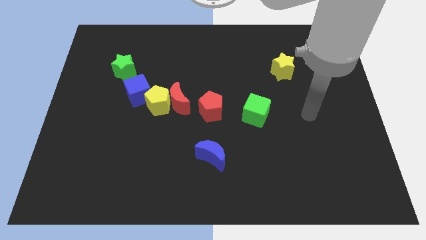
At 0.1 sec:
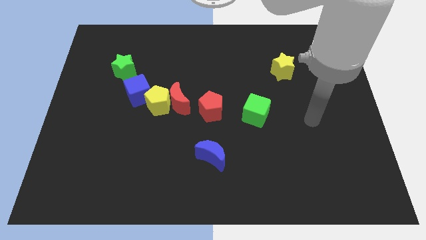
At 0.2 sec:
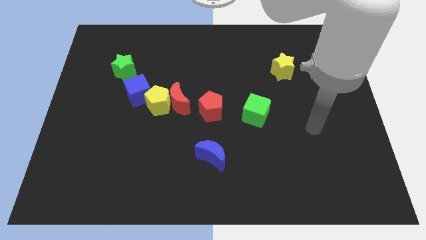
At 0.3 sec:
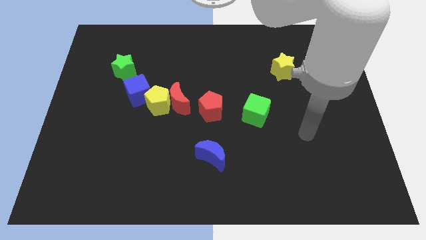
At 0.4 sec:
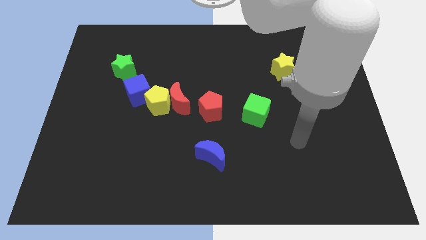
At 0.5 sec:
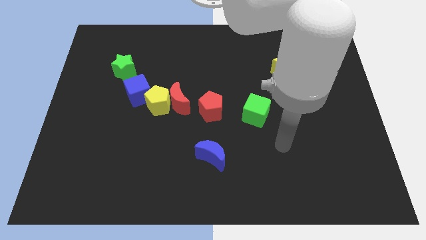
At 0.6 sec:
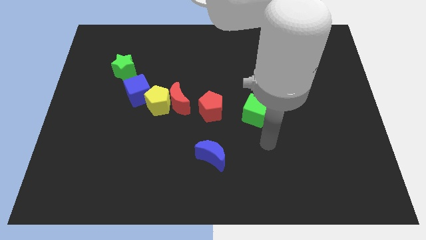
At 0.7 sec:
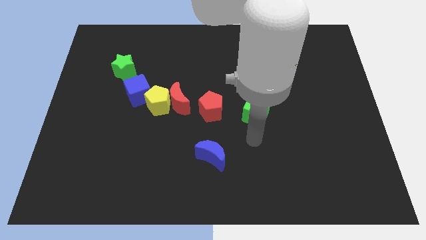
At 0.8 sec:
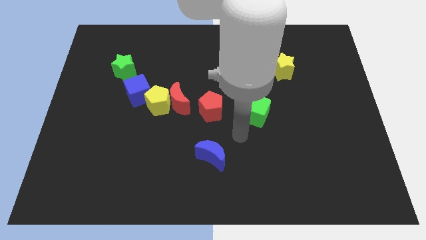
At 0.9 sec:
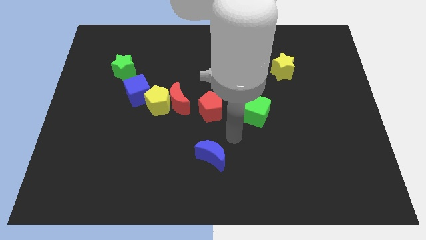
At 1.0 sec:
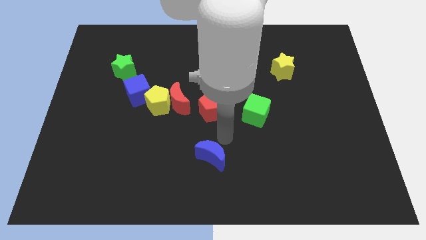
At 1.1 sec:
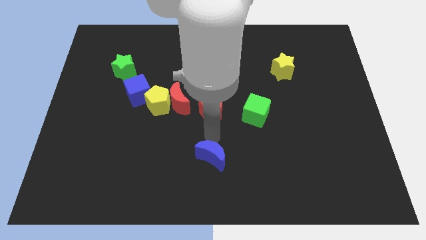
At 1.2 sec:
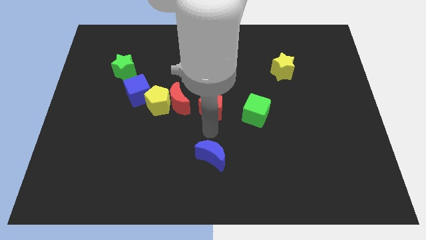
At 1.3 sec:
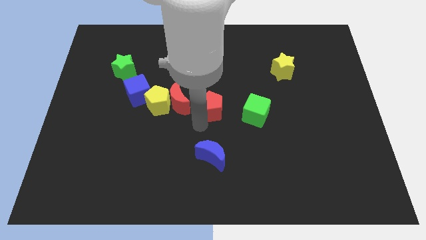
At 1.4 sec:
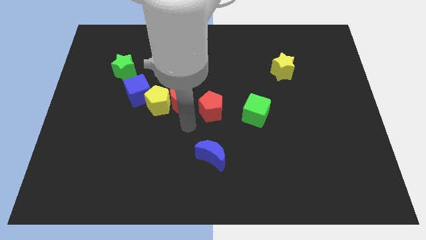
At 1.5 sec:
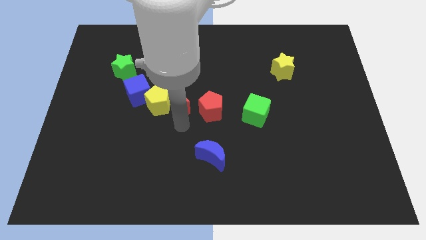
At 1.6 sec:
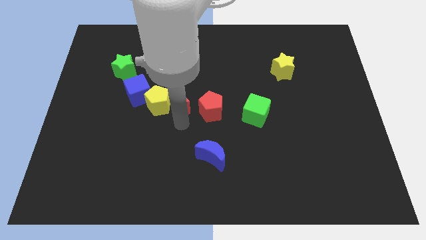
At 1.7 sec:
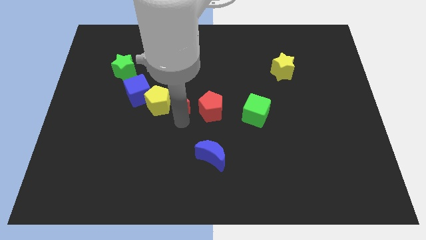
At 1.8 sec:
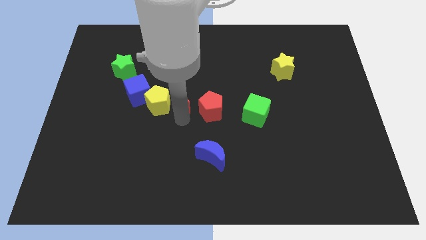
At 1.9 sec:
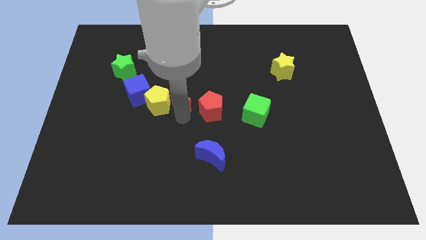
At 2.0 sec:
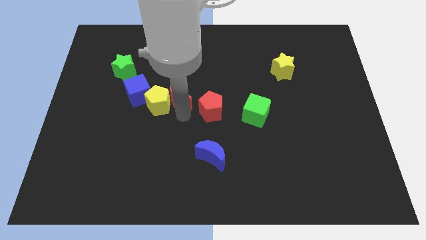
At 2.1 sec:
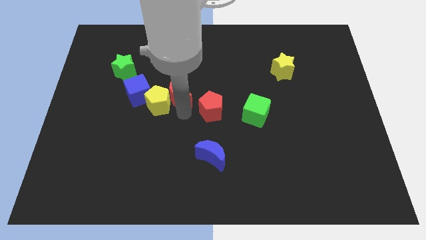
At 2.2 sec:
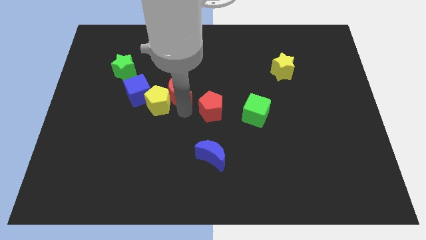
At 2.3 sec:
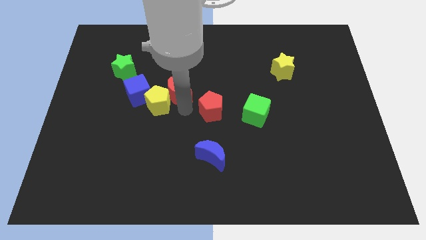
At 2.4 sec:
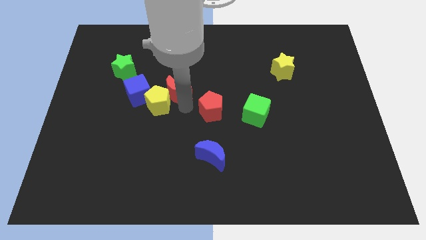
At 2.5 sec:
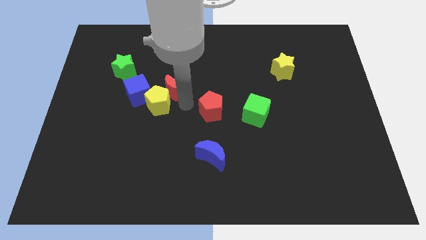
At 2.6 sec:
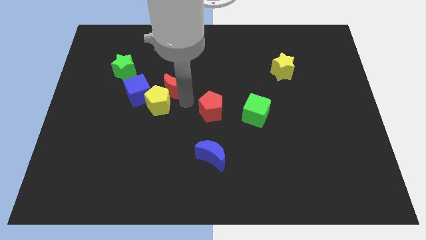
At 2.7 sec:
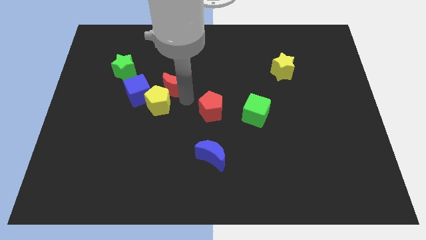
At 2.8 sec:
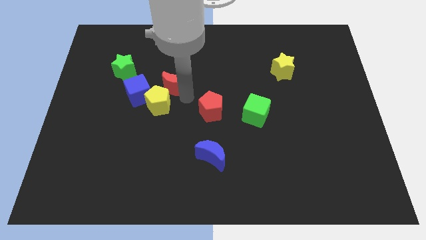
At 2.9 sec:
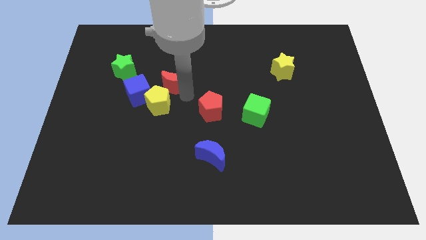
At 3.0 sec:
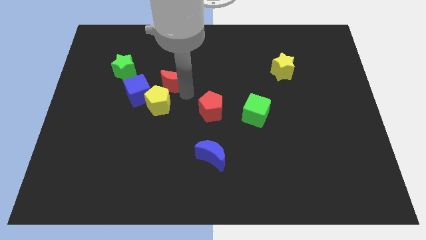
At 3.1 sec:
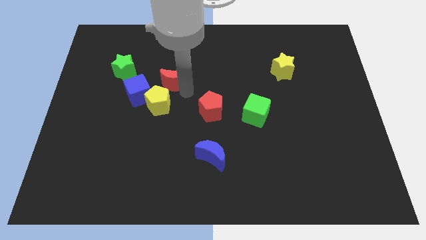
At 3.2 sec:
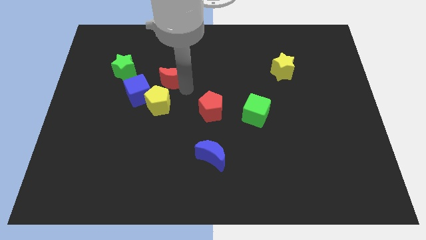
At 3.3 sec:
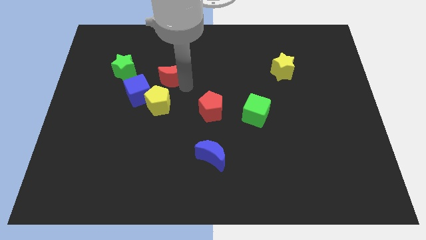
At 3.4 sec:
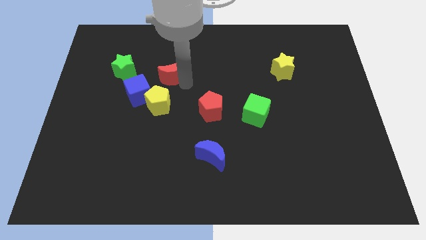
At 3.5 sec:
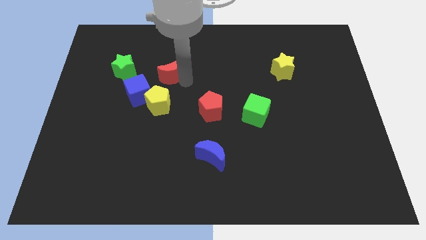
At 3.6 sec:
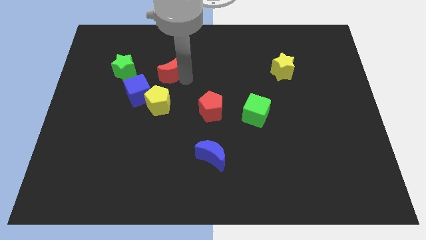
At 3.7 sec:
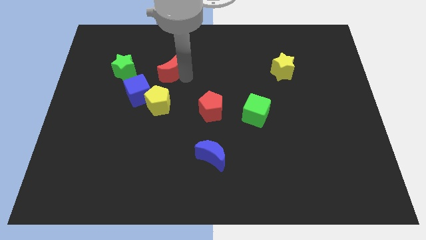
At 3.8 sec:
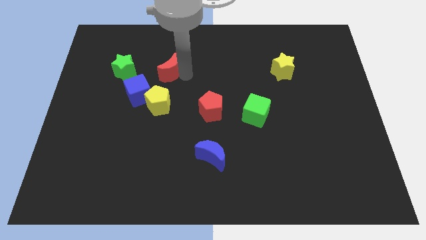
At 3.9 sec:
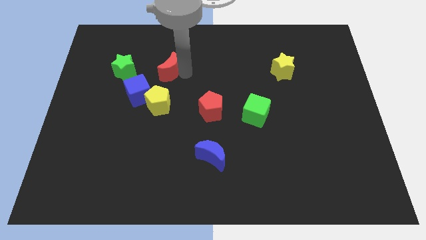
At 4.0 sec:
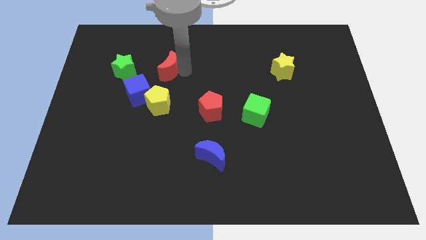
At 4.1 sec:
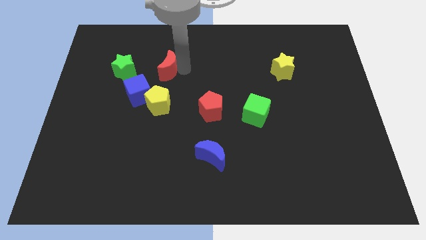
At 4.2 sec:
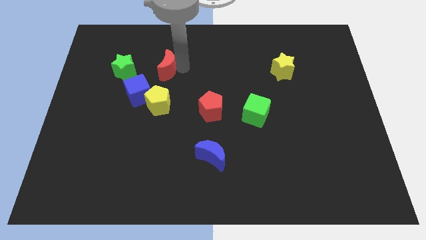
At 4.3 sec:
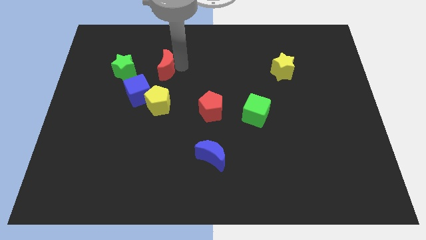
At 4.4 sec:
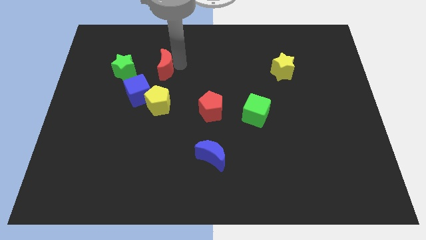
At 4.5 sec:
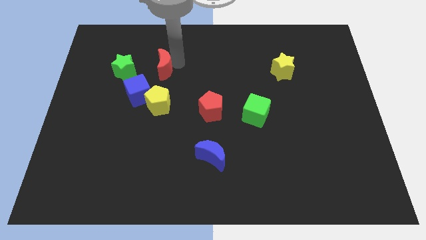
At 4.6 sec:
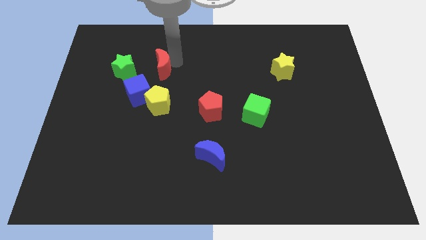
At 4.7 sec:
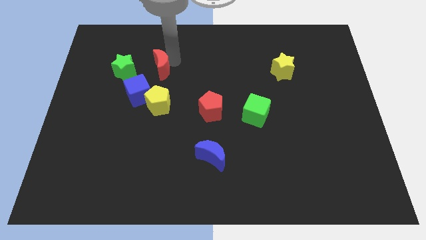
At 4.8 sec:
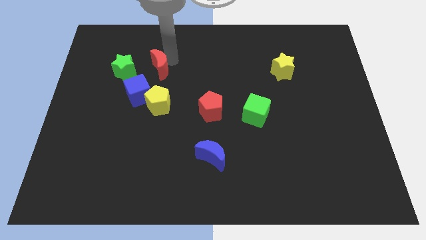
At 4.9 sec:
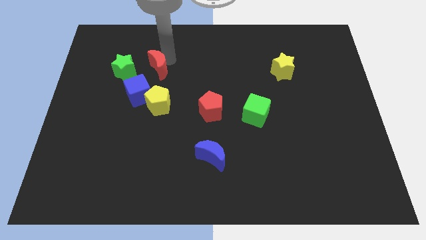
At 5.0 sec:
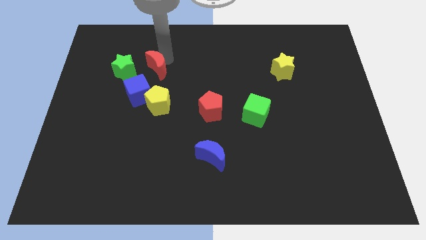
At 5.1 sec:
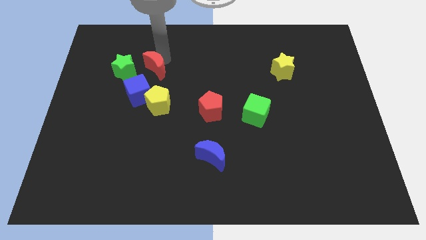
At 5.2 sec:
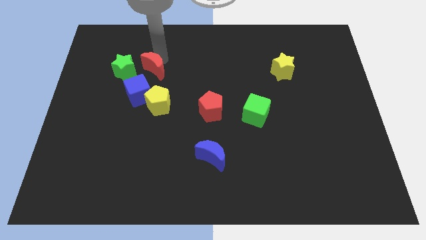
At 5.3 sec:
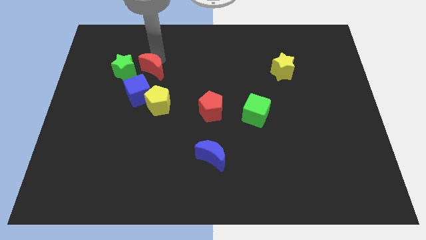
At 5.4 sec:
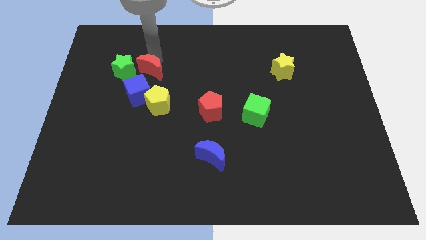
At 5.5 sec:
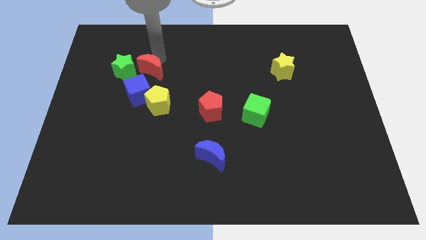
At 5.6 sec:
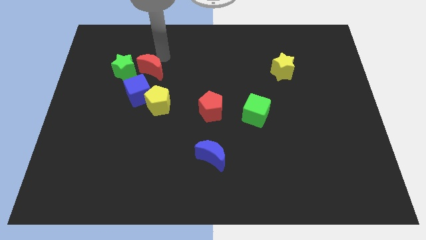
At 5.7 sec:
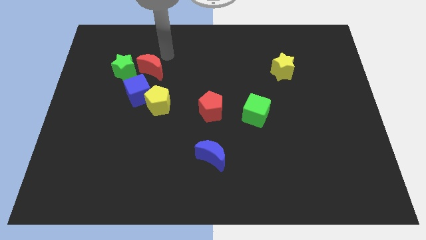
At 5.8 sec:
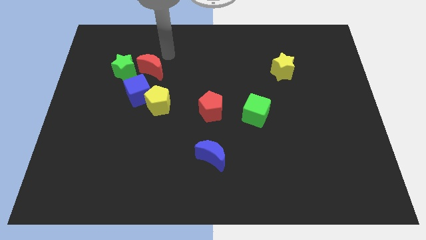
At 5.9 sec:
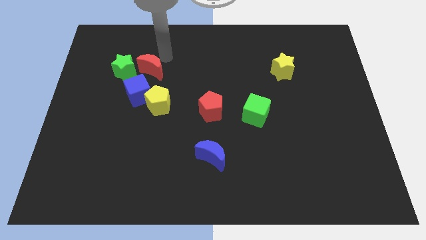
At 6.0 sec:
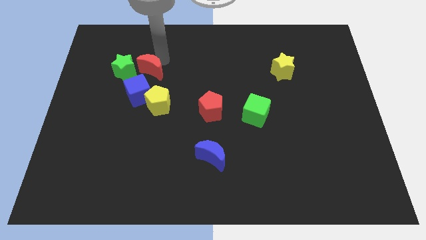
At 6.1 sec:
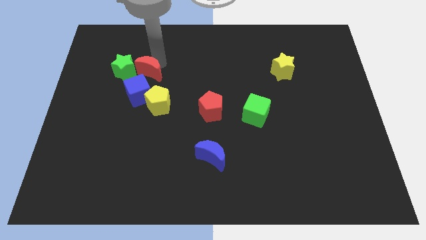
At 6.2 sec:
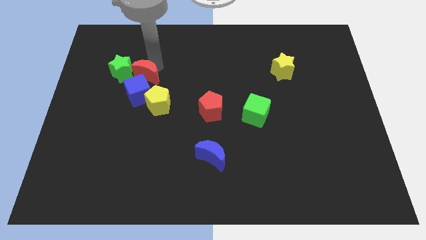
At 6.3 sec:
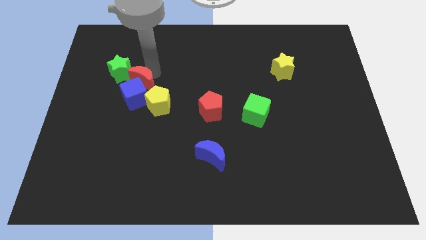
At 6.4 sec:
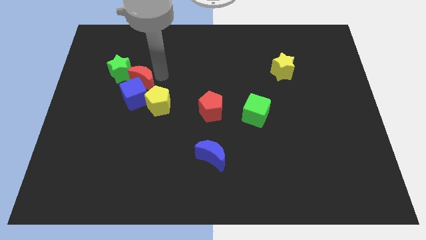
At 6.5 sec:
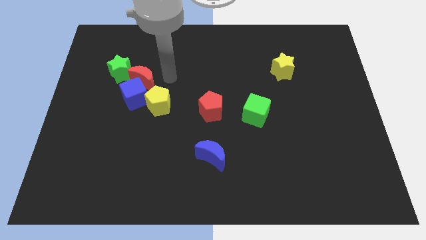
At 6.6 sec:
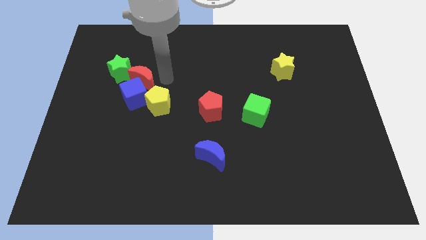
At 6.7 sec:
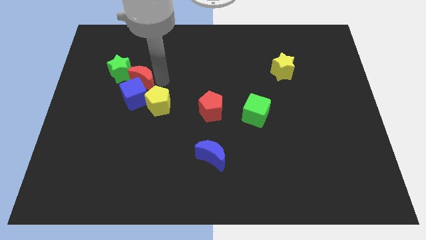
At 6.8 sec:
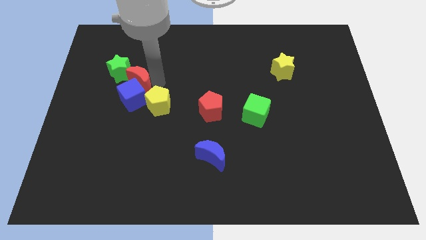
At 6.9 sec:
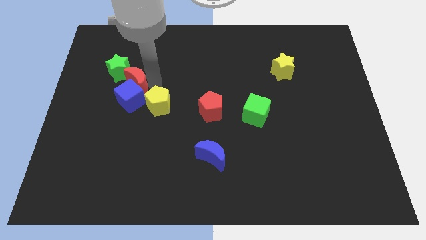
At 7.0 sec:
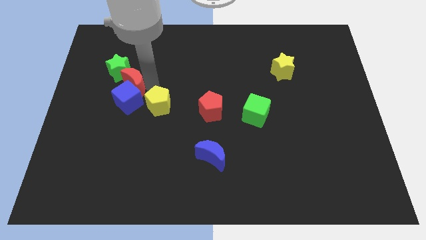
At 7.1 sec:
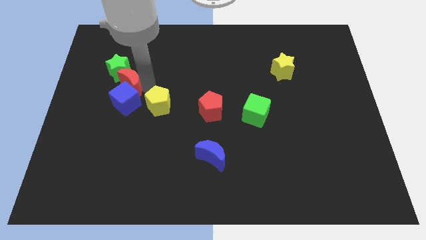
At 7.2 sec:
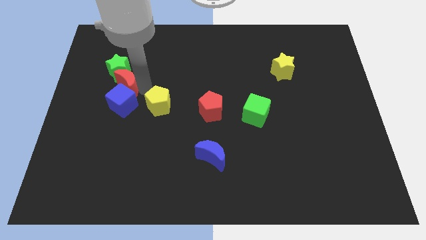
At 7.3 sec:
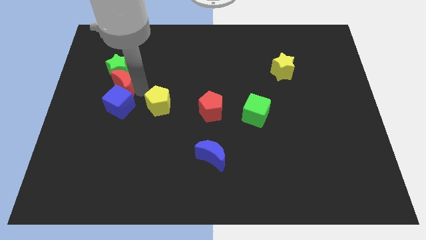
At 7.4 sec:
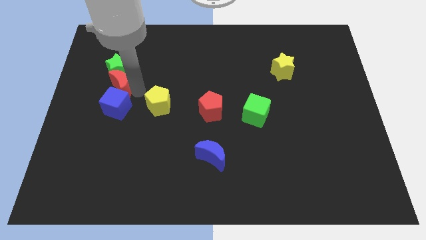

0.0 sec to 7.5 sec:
move the red moon diagonally down and to the left of the green star
